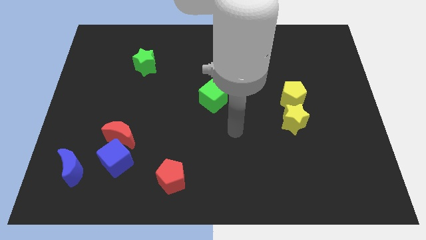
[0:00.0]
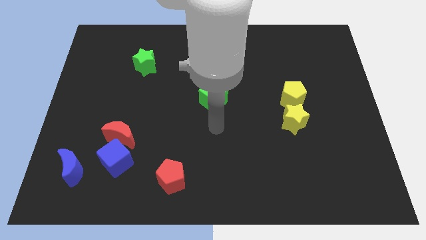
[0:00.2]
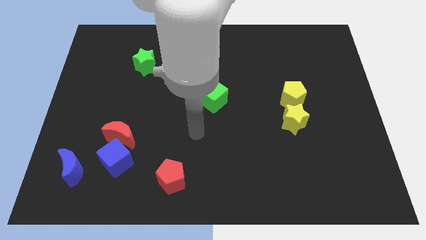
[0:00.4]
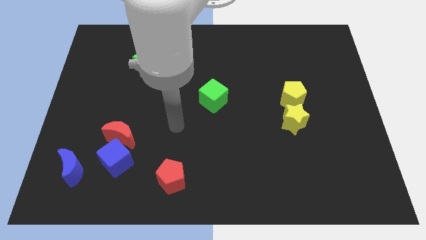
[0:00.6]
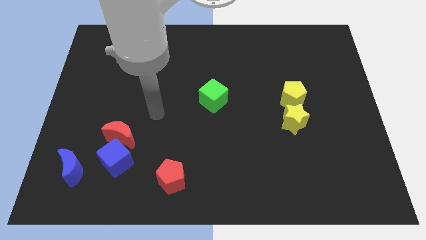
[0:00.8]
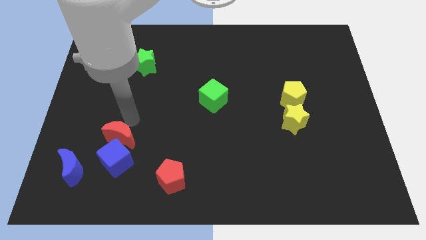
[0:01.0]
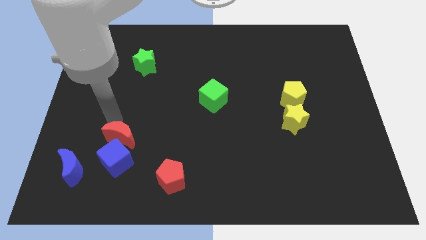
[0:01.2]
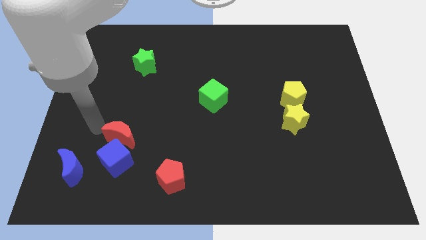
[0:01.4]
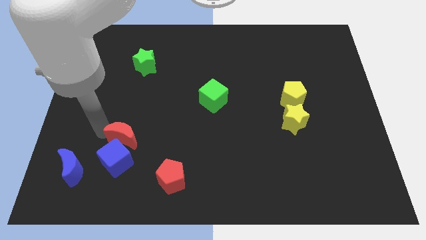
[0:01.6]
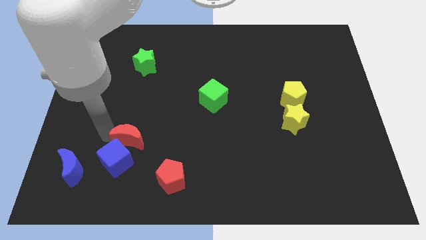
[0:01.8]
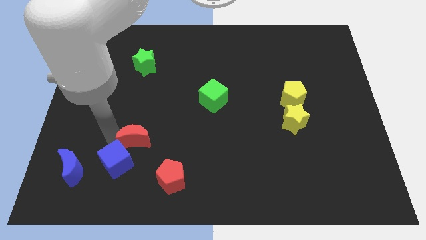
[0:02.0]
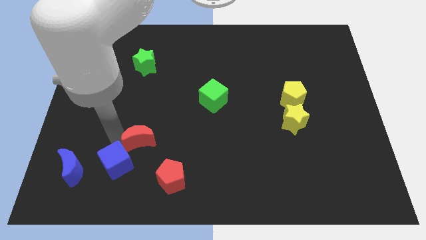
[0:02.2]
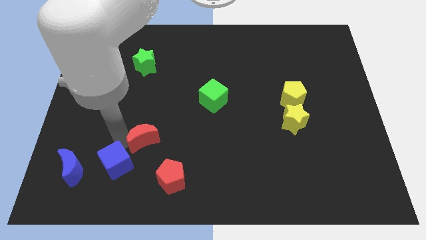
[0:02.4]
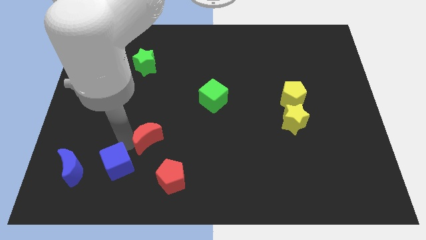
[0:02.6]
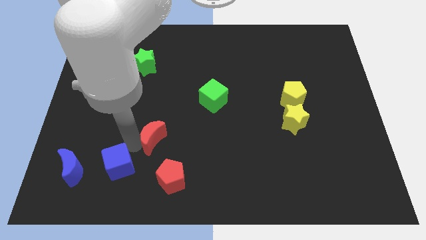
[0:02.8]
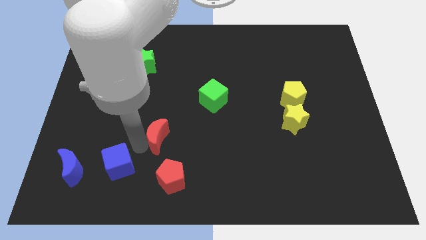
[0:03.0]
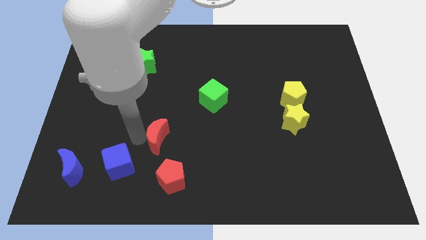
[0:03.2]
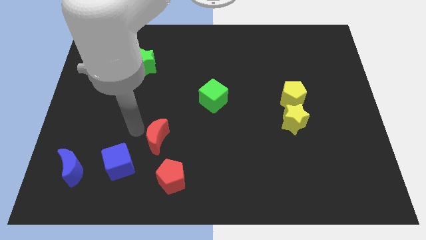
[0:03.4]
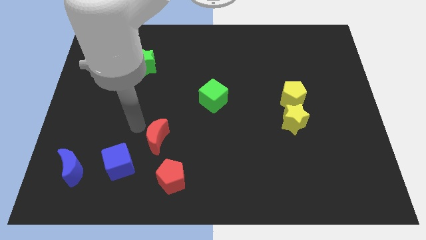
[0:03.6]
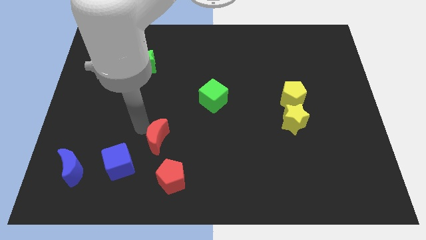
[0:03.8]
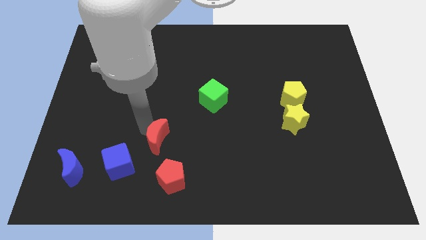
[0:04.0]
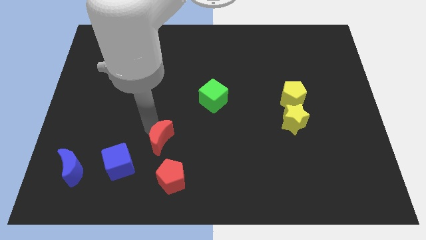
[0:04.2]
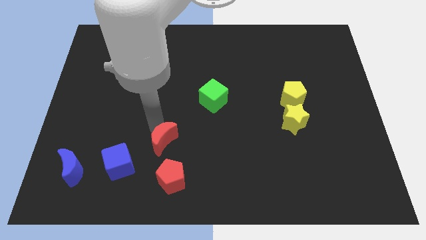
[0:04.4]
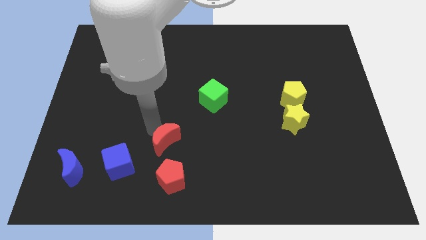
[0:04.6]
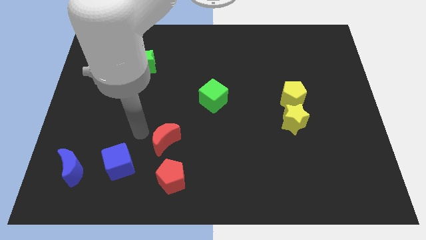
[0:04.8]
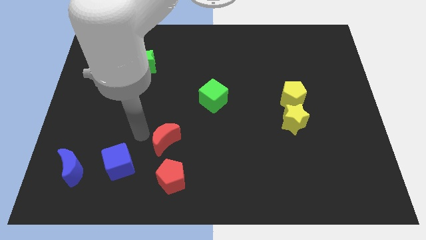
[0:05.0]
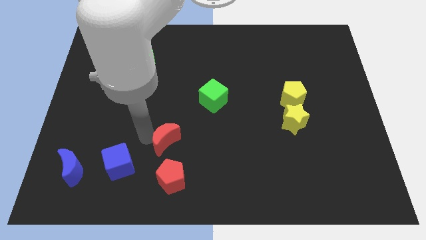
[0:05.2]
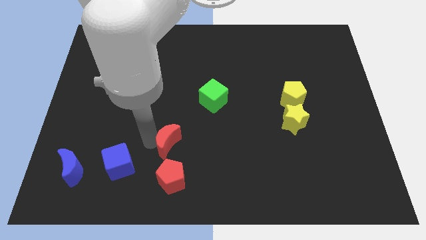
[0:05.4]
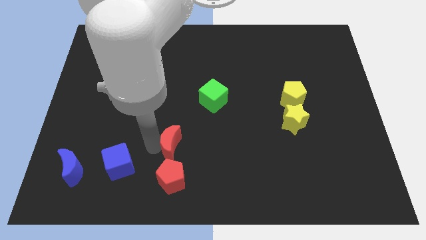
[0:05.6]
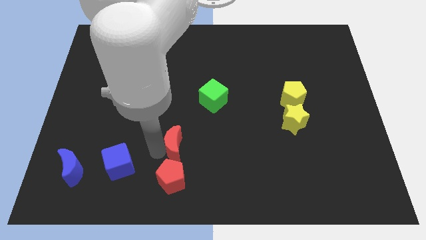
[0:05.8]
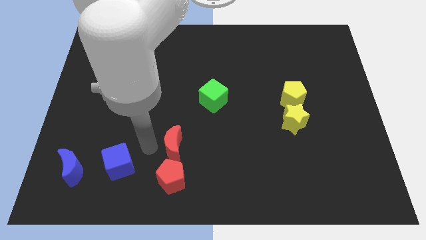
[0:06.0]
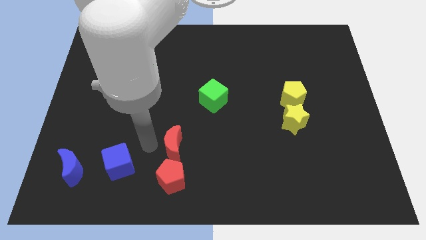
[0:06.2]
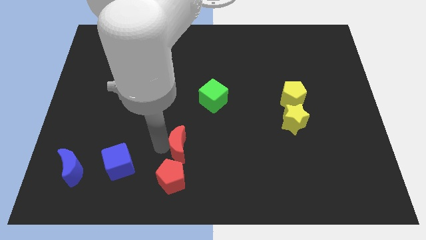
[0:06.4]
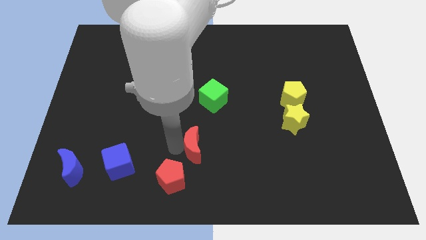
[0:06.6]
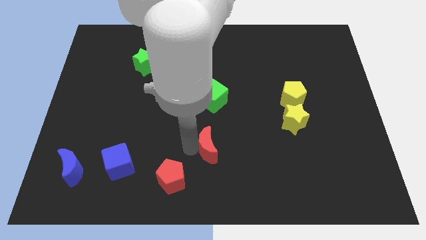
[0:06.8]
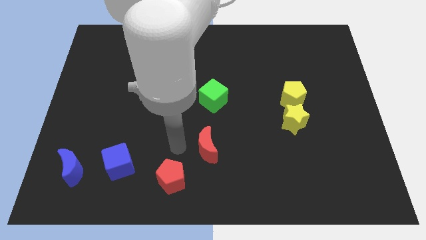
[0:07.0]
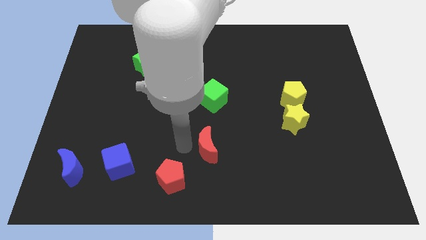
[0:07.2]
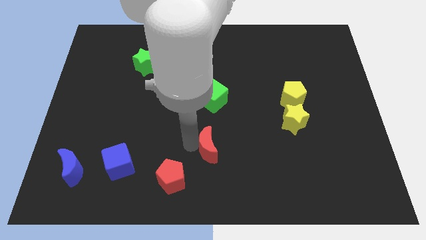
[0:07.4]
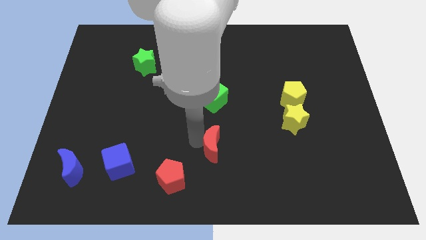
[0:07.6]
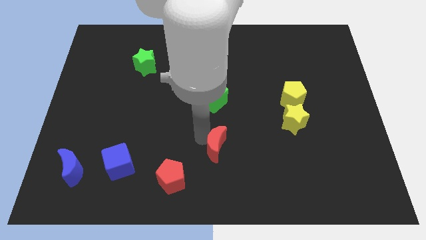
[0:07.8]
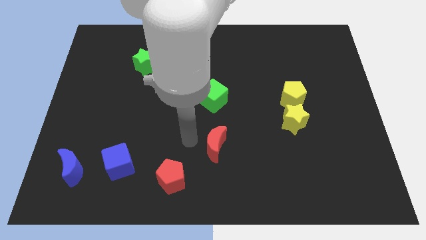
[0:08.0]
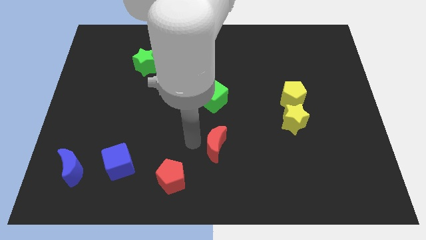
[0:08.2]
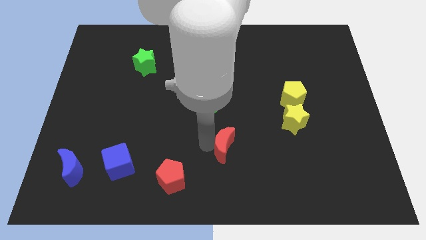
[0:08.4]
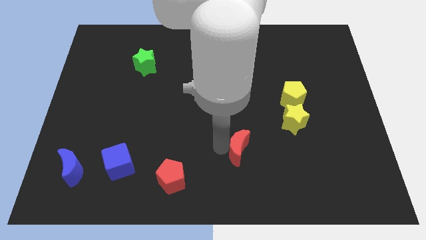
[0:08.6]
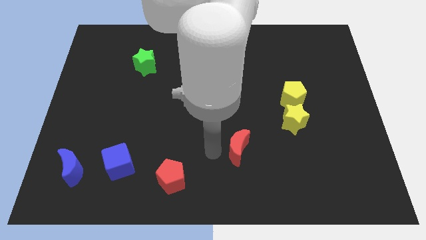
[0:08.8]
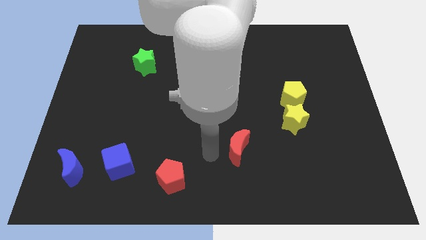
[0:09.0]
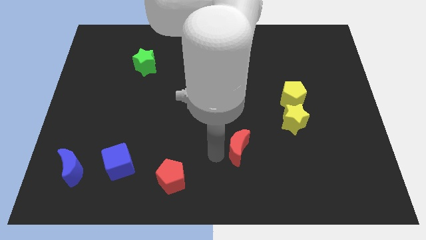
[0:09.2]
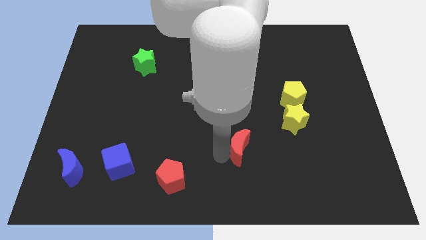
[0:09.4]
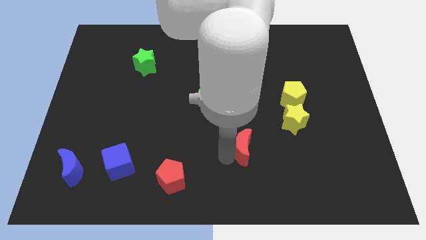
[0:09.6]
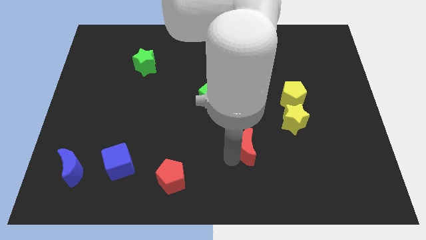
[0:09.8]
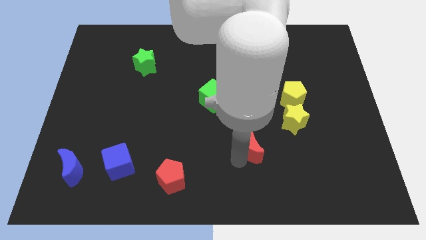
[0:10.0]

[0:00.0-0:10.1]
push the red moon diagonally down and to the left of the yellow star

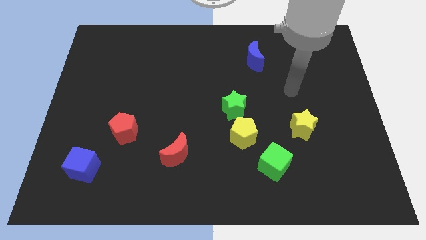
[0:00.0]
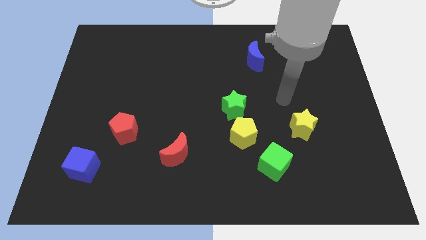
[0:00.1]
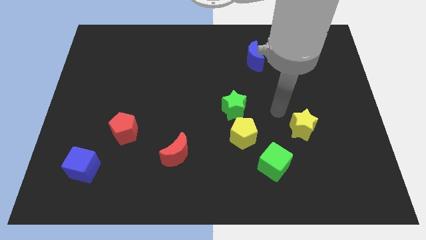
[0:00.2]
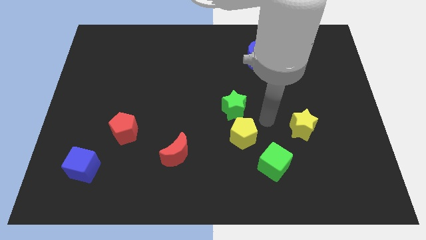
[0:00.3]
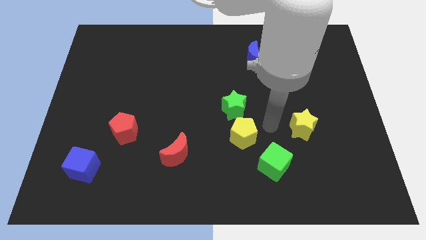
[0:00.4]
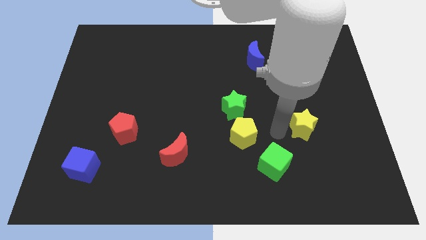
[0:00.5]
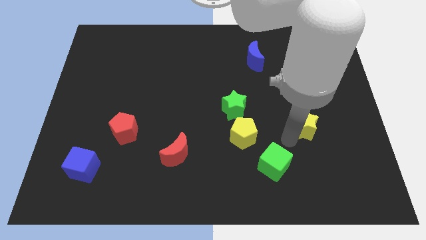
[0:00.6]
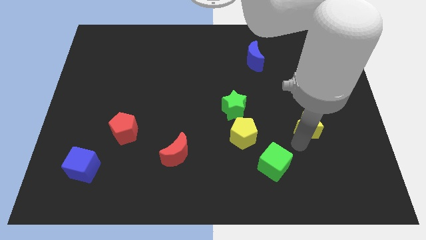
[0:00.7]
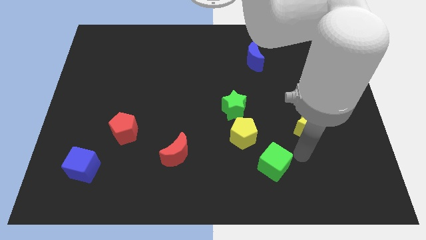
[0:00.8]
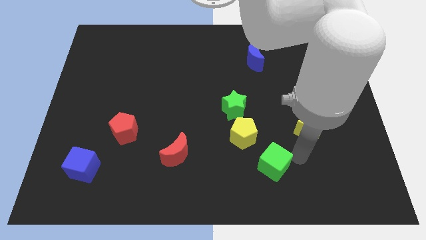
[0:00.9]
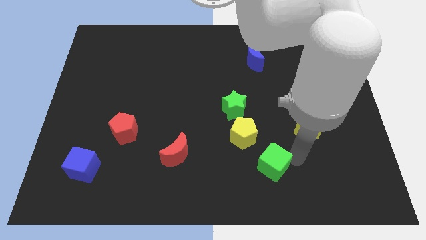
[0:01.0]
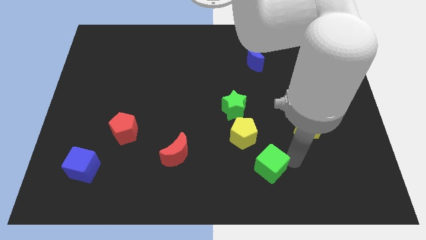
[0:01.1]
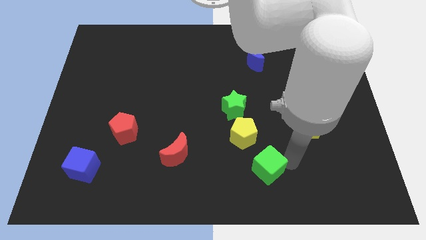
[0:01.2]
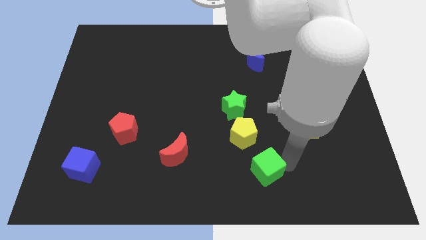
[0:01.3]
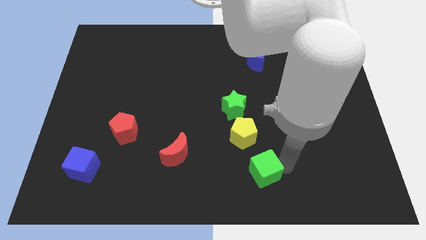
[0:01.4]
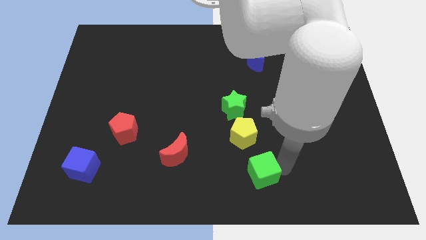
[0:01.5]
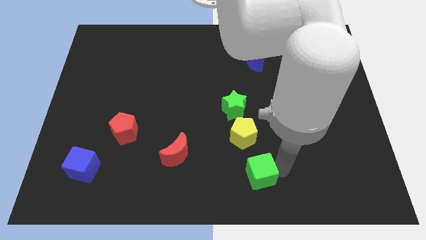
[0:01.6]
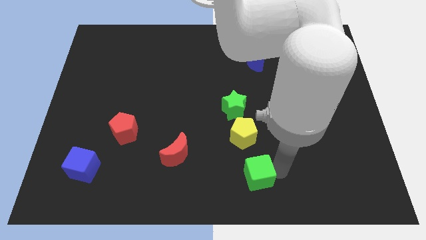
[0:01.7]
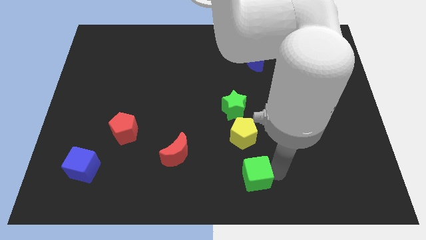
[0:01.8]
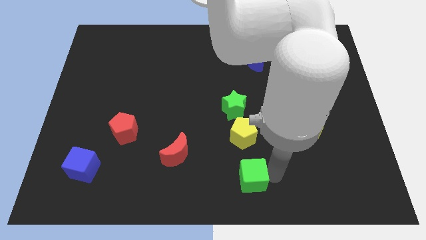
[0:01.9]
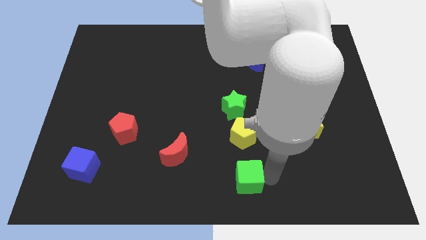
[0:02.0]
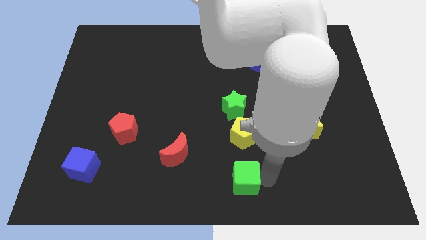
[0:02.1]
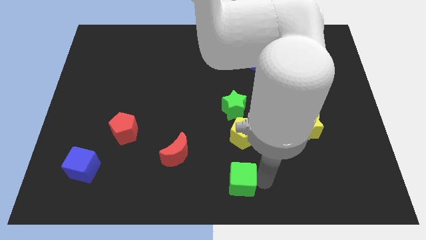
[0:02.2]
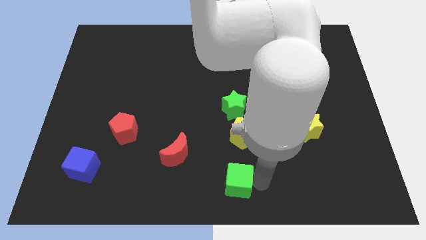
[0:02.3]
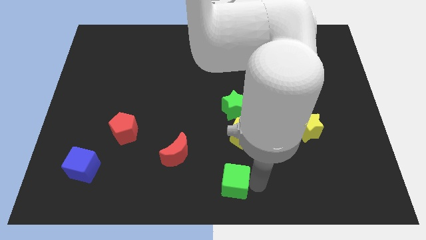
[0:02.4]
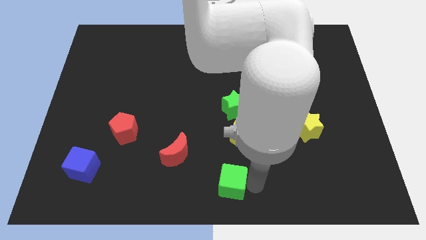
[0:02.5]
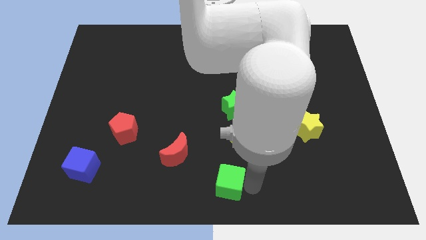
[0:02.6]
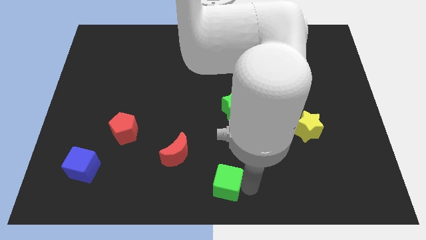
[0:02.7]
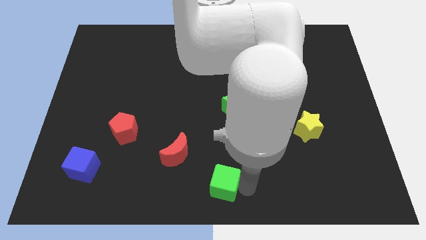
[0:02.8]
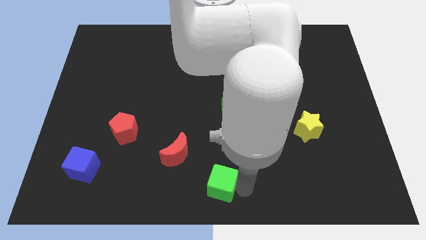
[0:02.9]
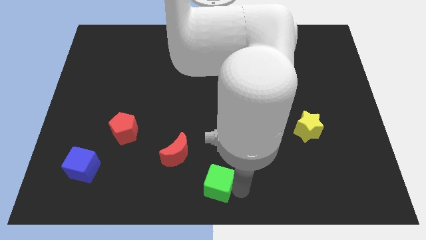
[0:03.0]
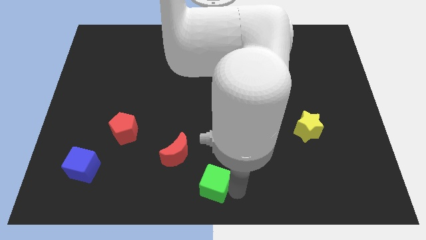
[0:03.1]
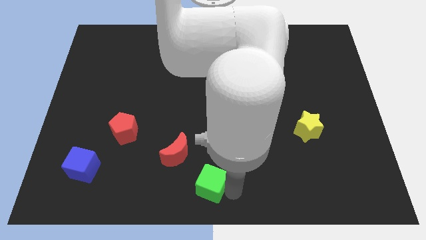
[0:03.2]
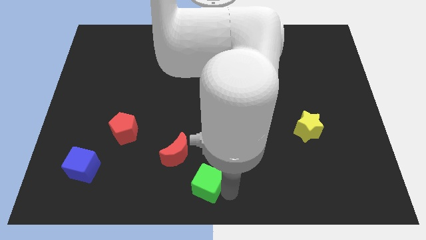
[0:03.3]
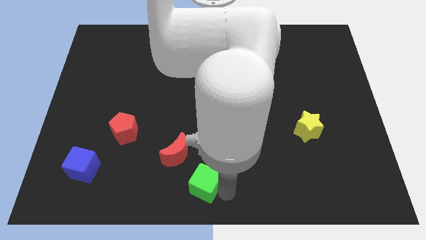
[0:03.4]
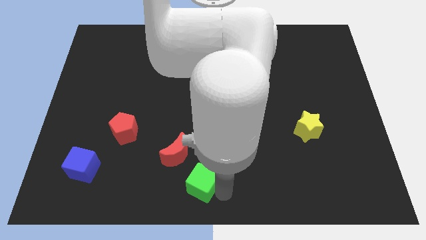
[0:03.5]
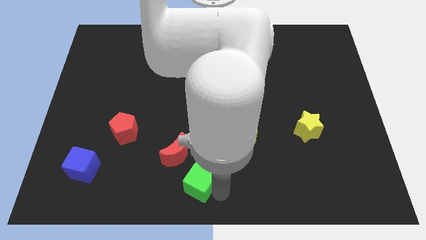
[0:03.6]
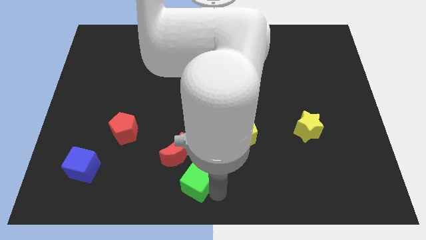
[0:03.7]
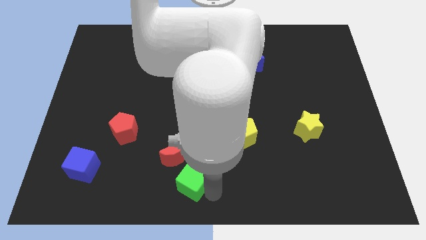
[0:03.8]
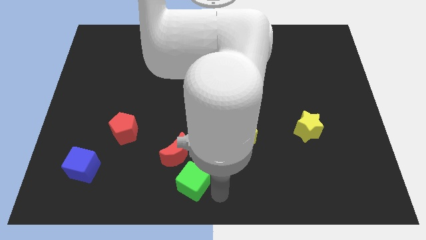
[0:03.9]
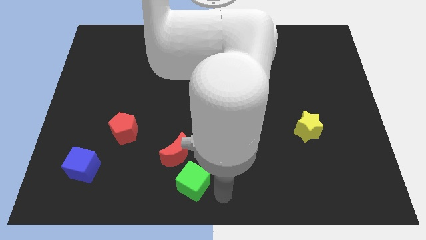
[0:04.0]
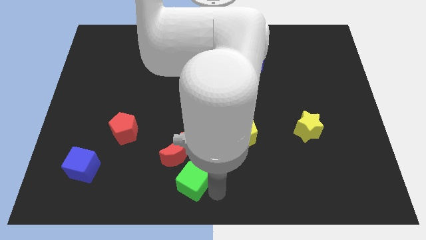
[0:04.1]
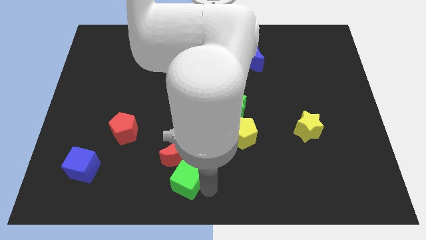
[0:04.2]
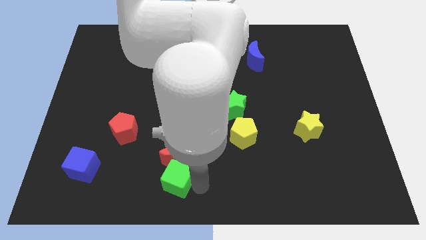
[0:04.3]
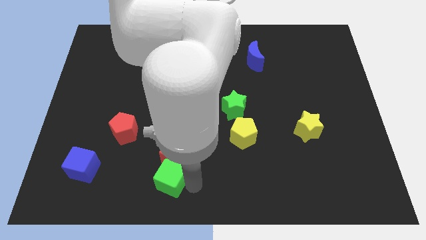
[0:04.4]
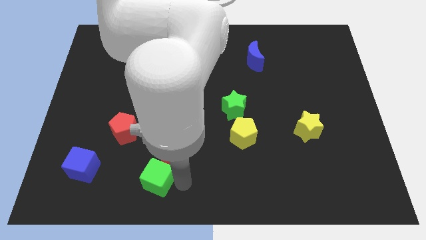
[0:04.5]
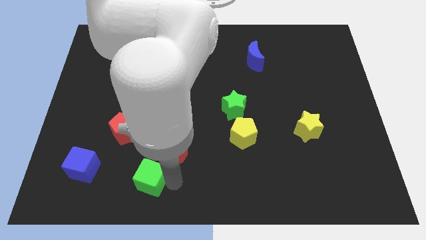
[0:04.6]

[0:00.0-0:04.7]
push the green cube just right of the blue cube
